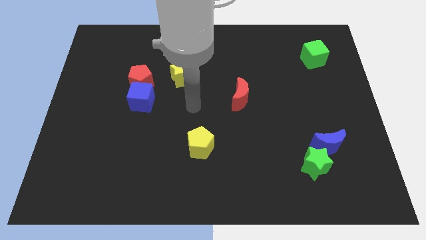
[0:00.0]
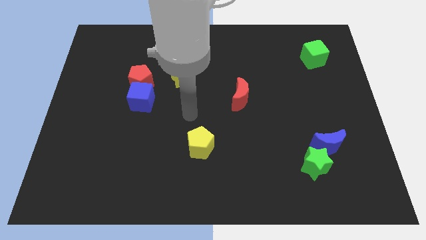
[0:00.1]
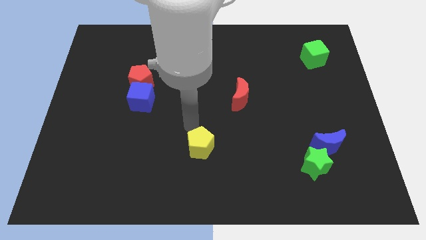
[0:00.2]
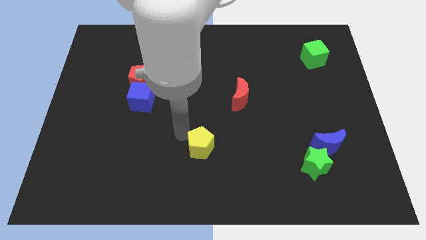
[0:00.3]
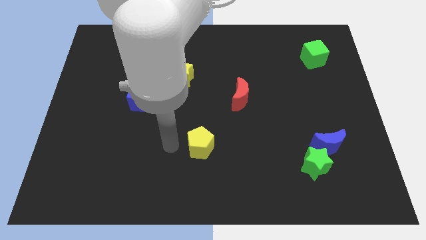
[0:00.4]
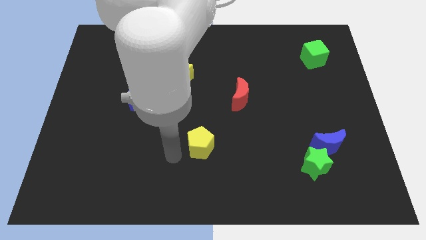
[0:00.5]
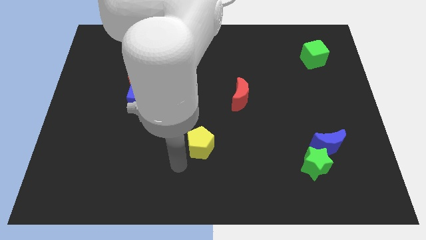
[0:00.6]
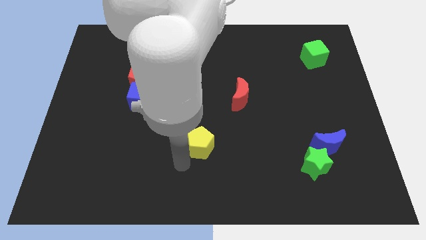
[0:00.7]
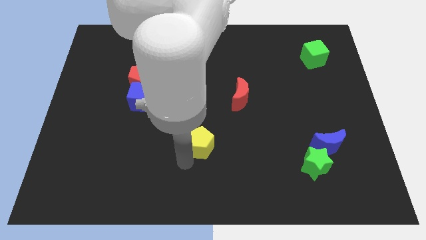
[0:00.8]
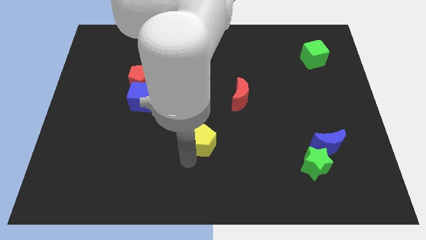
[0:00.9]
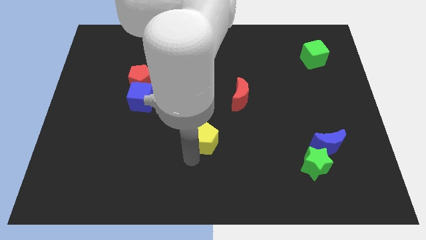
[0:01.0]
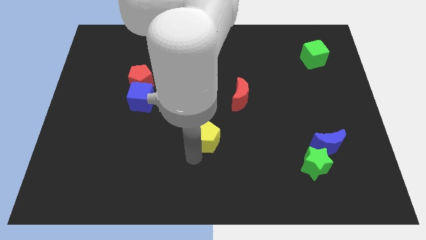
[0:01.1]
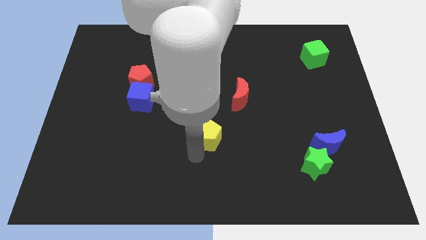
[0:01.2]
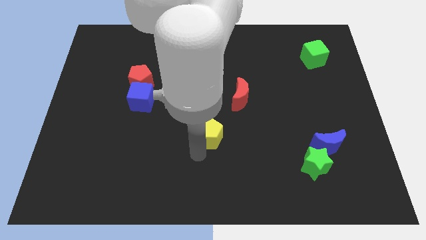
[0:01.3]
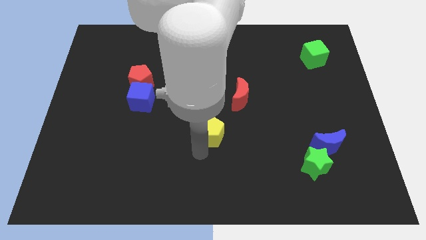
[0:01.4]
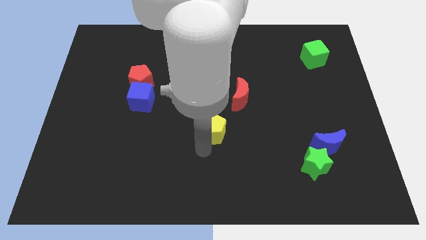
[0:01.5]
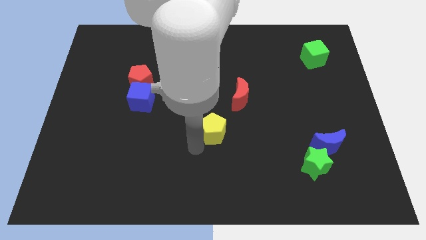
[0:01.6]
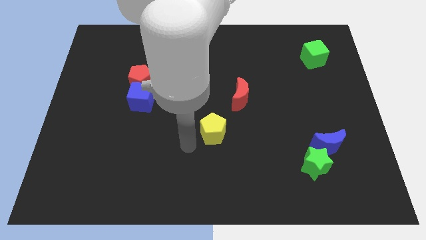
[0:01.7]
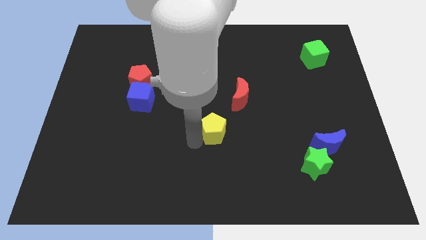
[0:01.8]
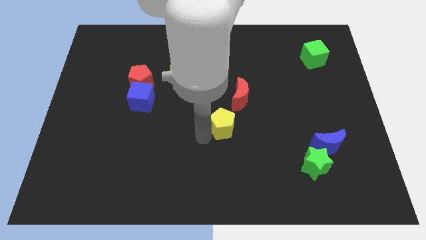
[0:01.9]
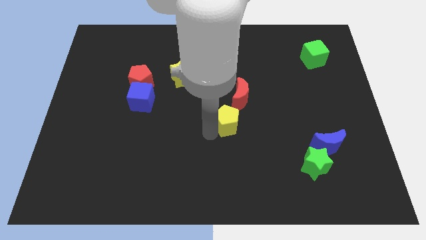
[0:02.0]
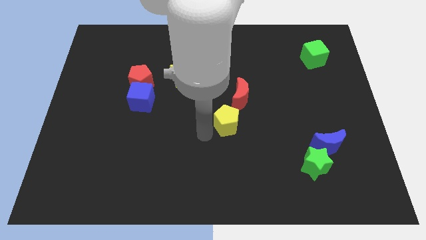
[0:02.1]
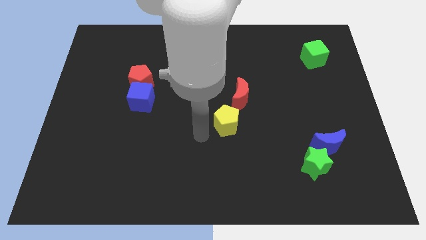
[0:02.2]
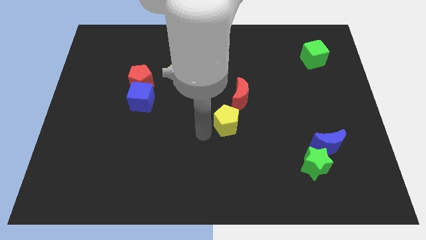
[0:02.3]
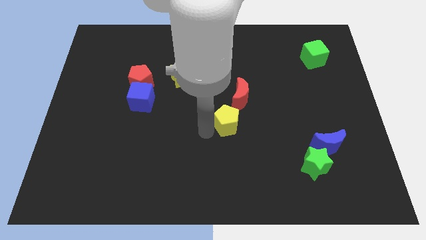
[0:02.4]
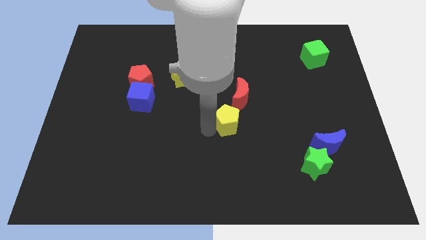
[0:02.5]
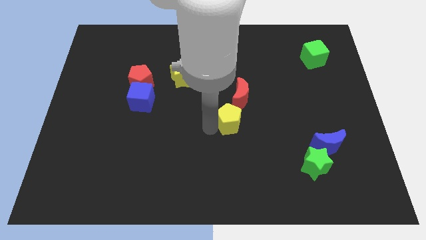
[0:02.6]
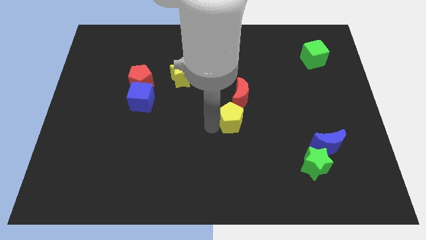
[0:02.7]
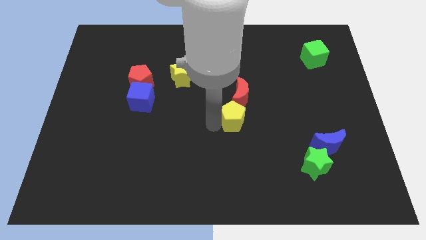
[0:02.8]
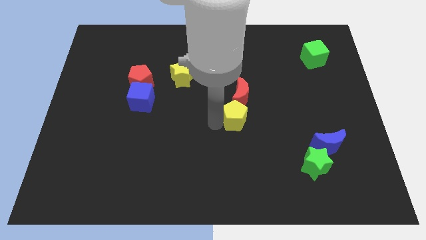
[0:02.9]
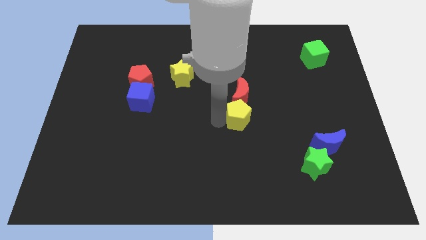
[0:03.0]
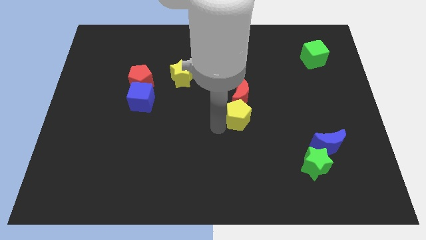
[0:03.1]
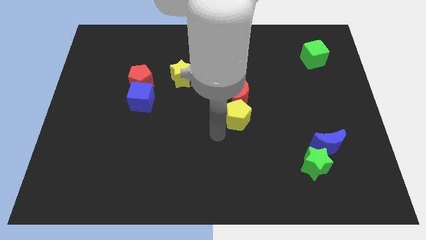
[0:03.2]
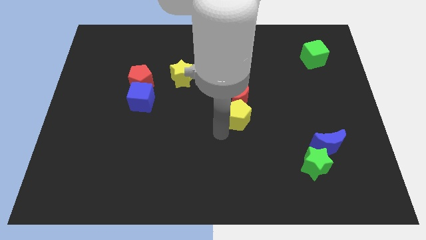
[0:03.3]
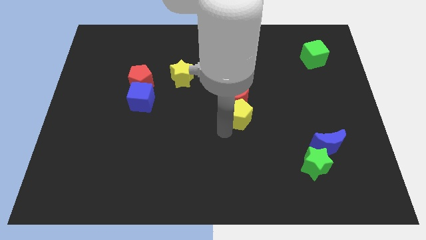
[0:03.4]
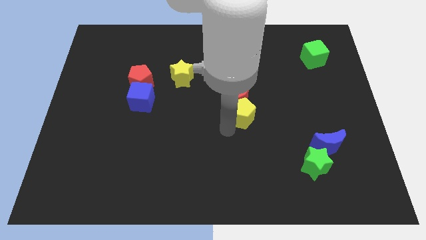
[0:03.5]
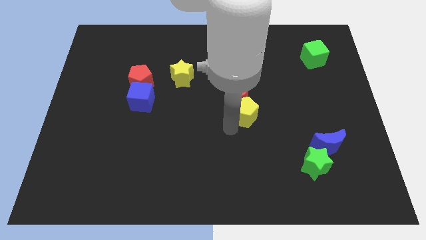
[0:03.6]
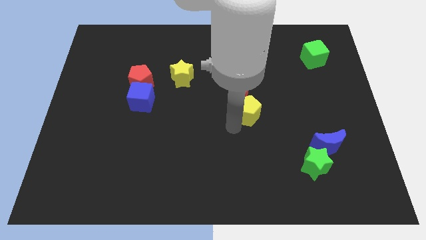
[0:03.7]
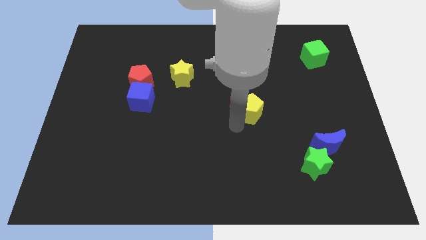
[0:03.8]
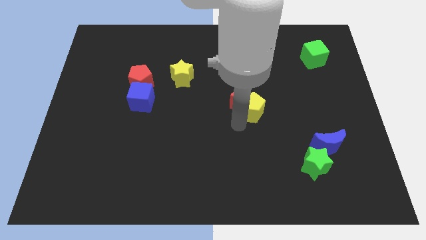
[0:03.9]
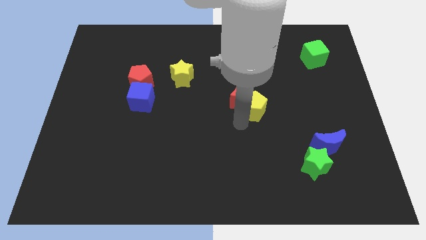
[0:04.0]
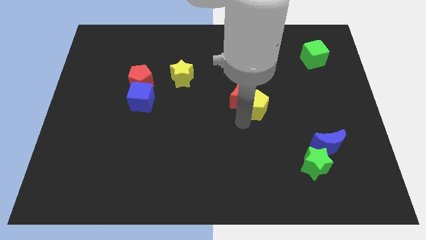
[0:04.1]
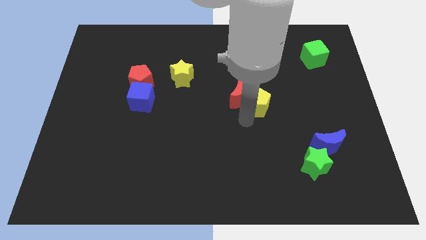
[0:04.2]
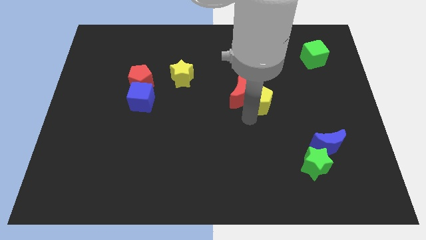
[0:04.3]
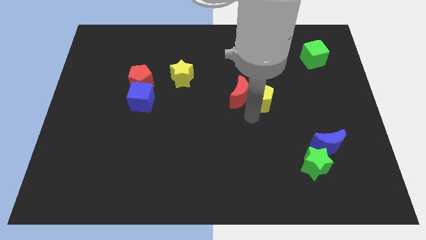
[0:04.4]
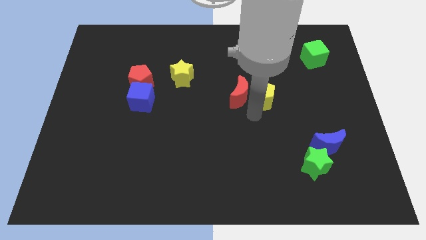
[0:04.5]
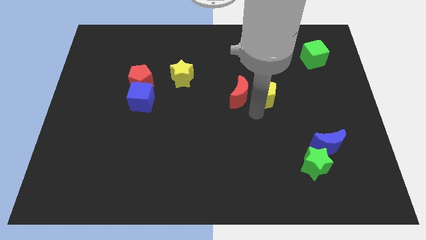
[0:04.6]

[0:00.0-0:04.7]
push the yellow pentagon up and then right

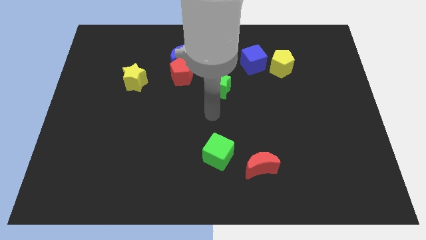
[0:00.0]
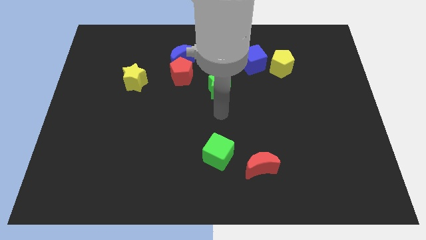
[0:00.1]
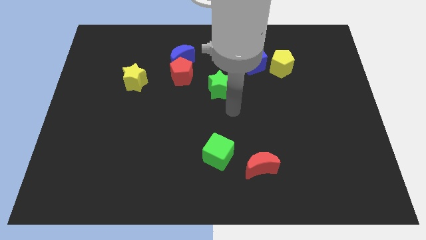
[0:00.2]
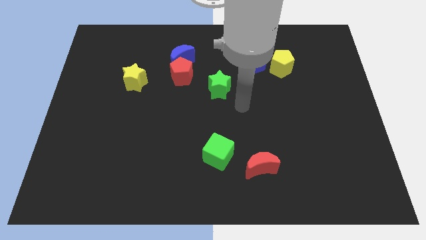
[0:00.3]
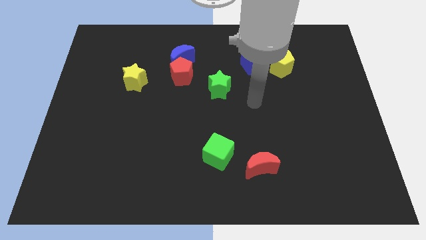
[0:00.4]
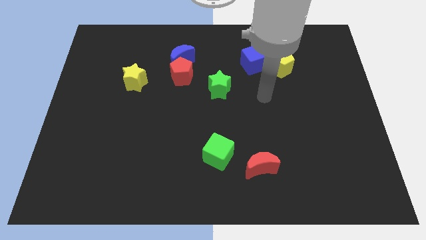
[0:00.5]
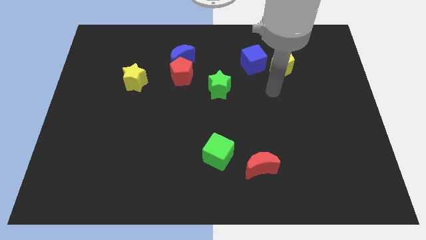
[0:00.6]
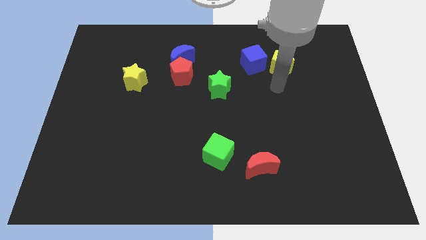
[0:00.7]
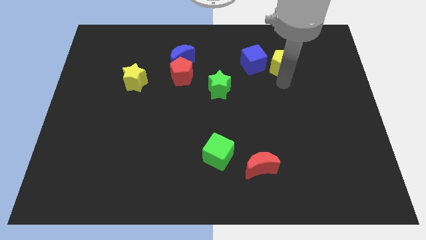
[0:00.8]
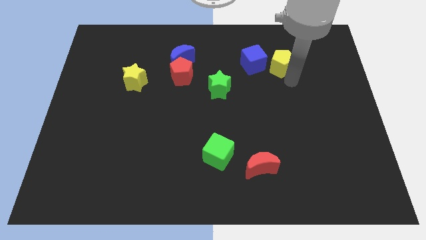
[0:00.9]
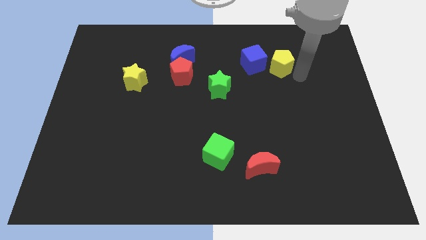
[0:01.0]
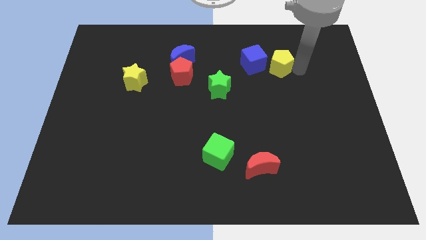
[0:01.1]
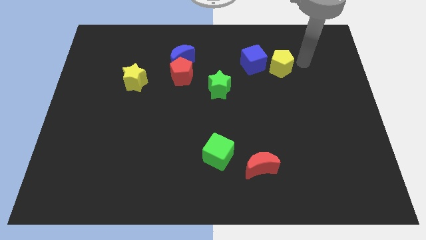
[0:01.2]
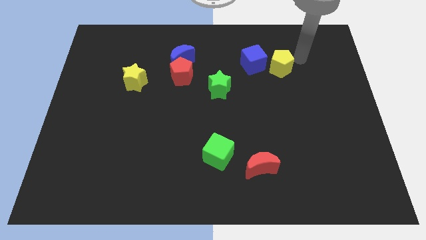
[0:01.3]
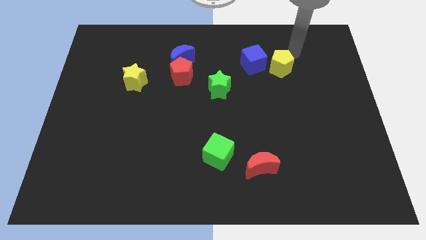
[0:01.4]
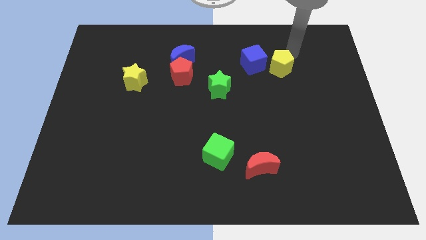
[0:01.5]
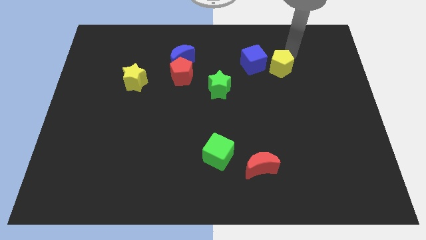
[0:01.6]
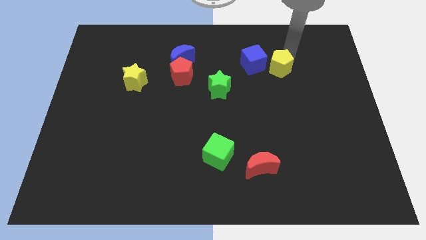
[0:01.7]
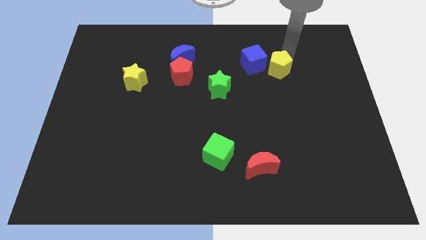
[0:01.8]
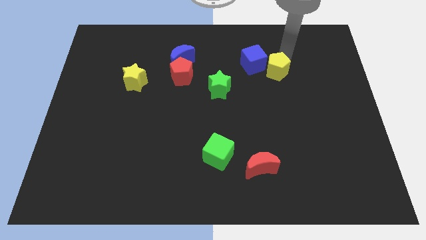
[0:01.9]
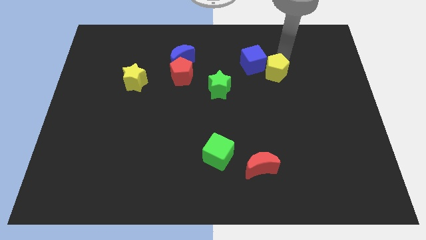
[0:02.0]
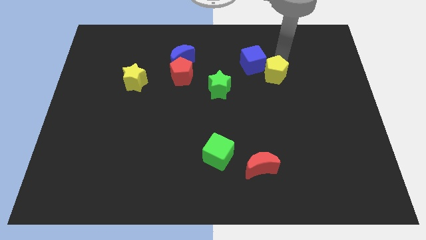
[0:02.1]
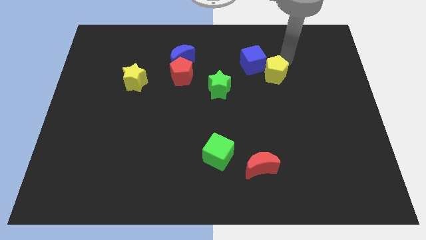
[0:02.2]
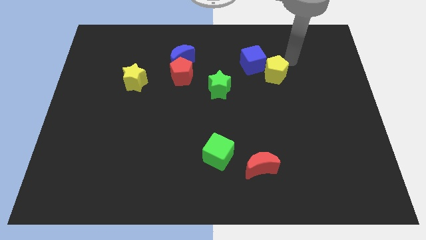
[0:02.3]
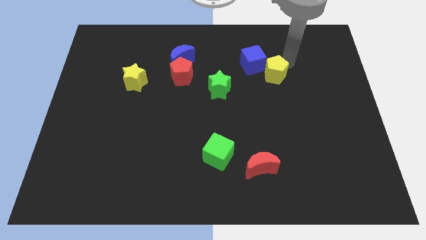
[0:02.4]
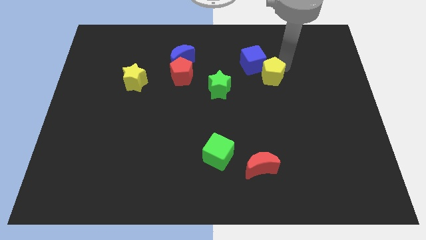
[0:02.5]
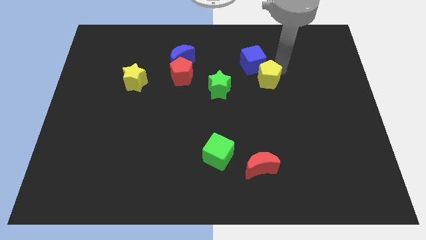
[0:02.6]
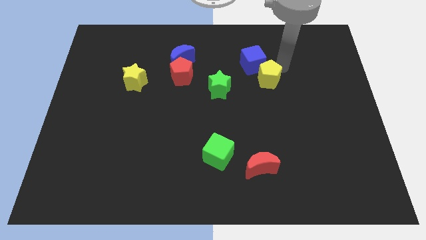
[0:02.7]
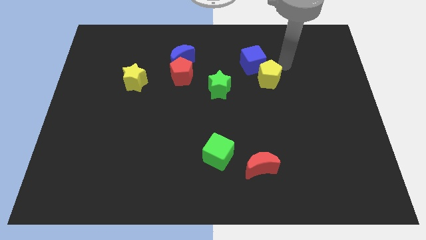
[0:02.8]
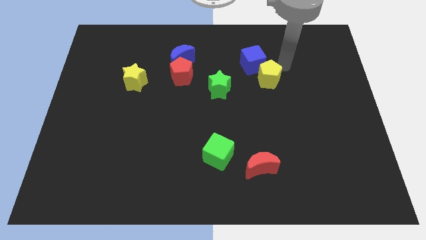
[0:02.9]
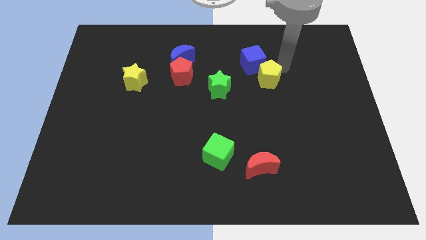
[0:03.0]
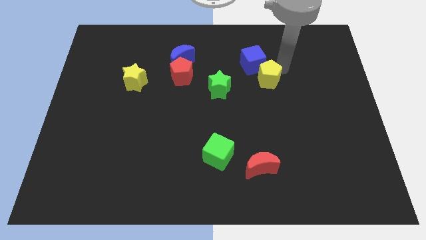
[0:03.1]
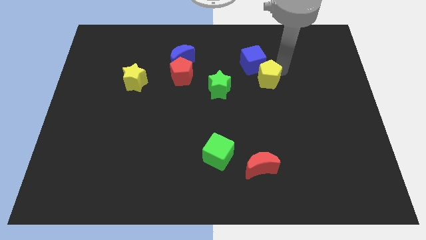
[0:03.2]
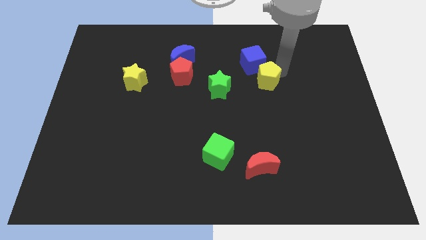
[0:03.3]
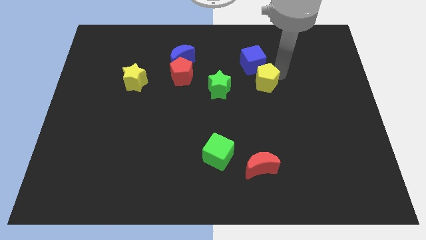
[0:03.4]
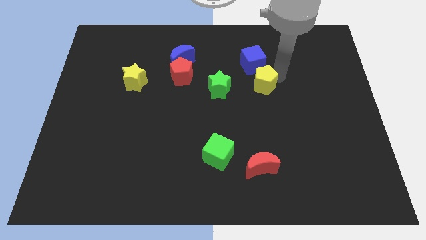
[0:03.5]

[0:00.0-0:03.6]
move the yellow pentagon somewhat downwards and then to the left
